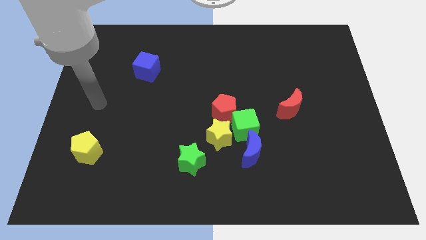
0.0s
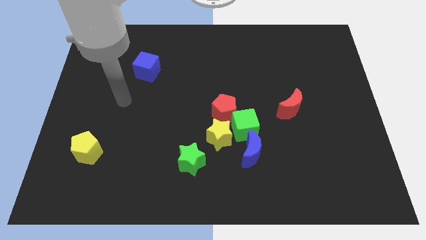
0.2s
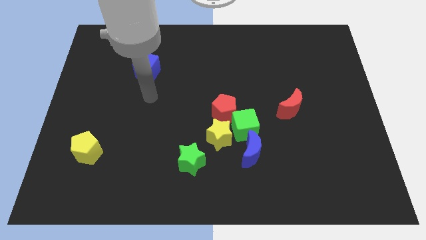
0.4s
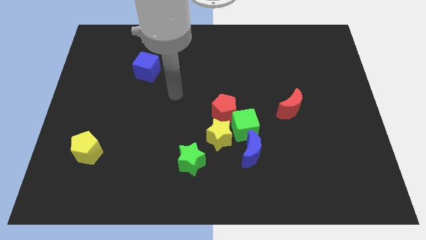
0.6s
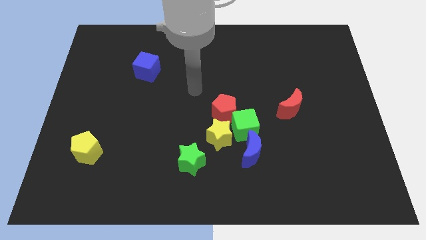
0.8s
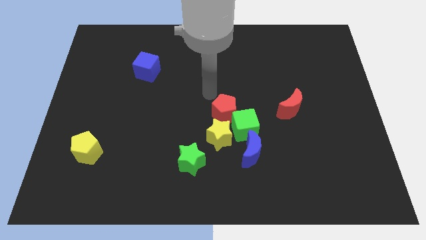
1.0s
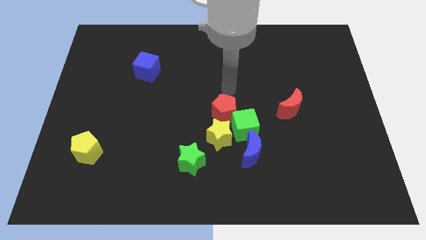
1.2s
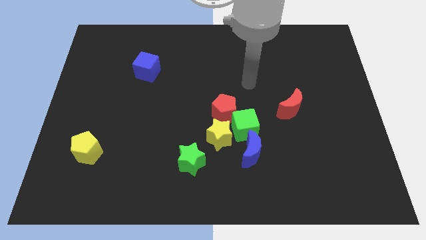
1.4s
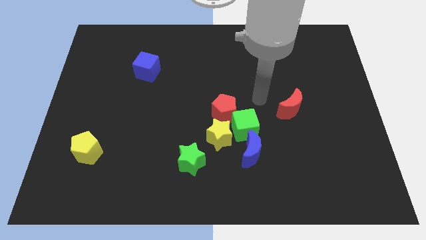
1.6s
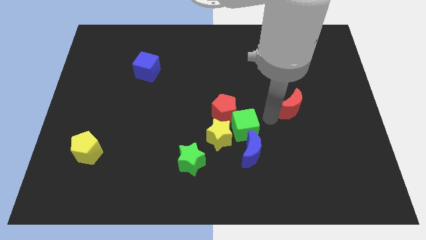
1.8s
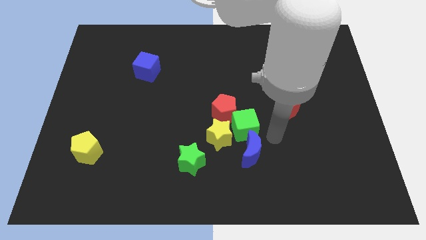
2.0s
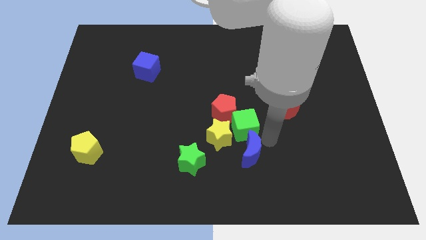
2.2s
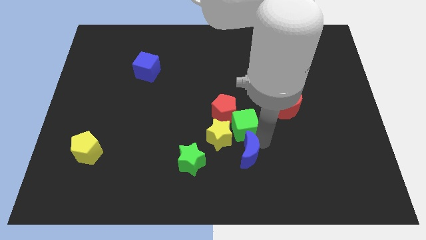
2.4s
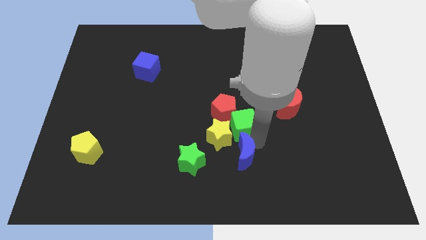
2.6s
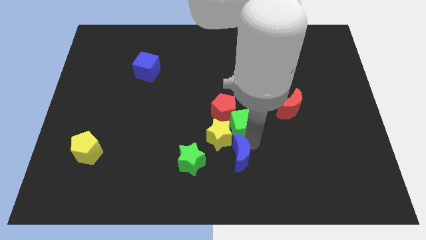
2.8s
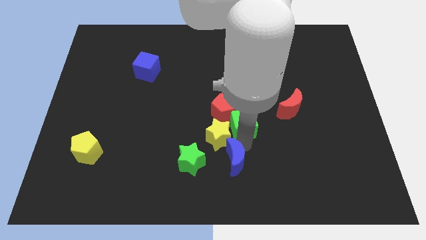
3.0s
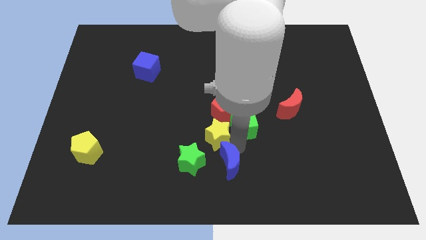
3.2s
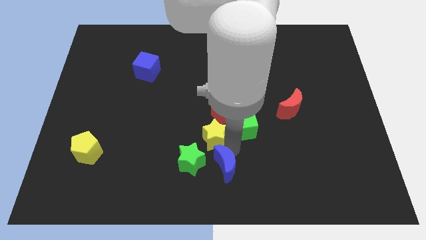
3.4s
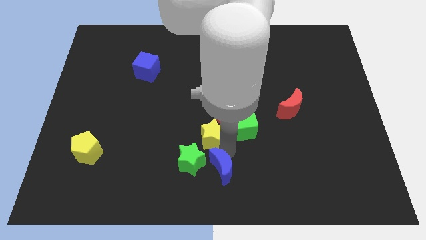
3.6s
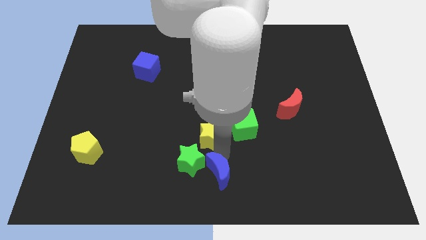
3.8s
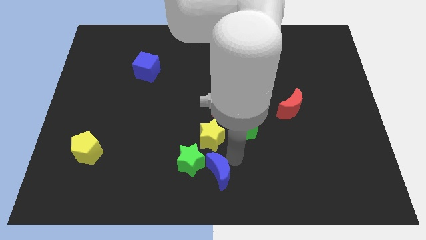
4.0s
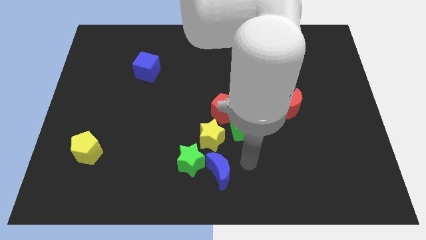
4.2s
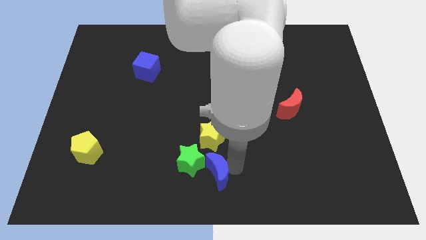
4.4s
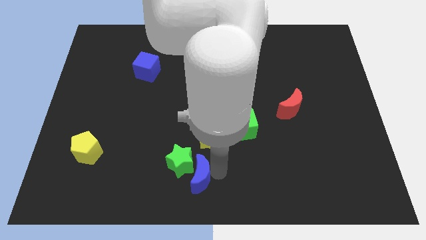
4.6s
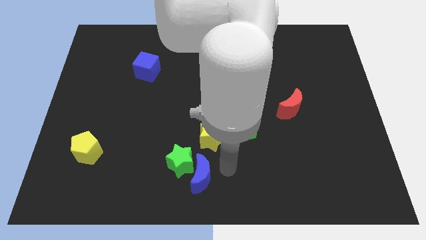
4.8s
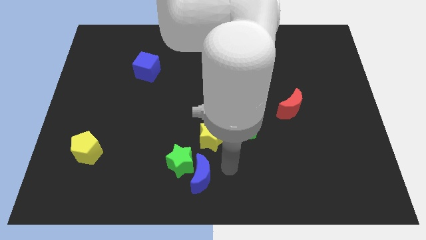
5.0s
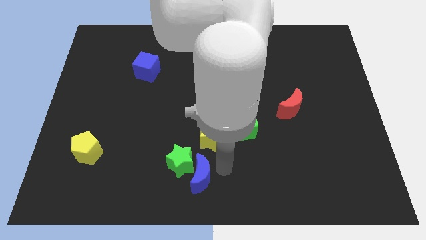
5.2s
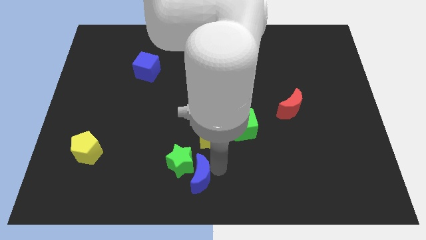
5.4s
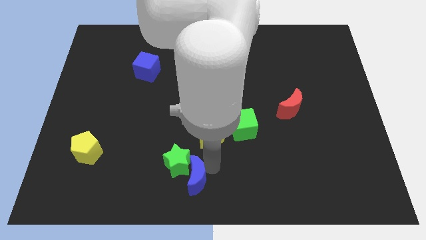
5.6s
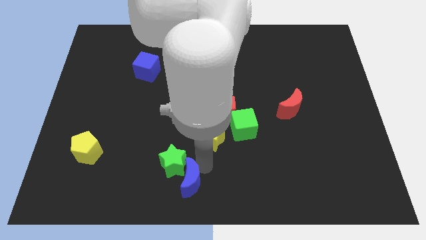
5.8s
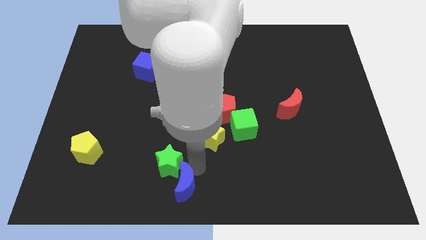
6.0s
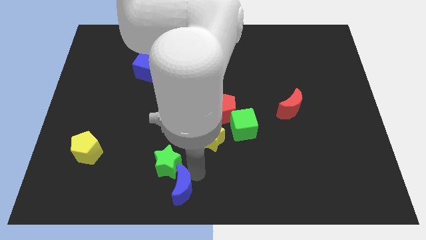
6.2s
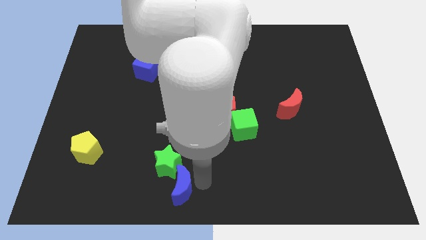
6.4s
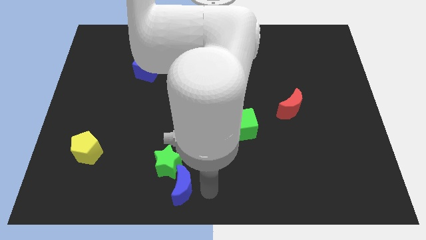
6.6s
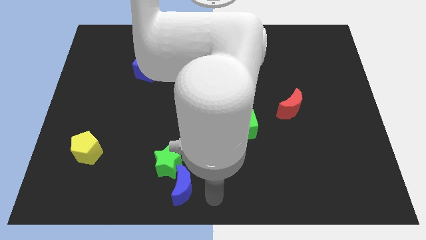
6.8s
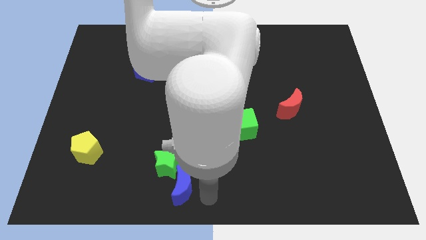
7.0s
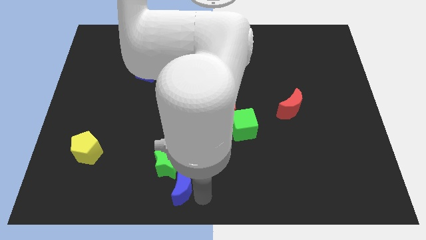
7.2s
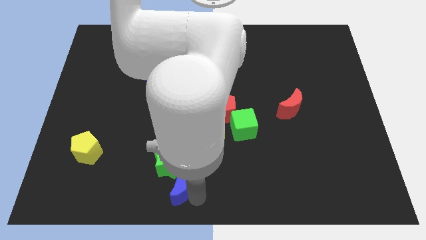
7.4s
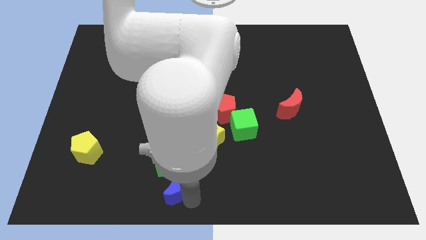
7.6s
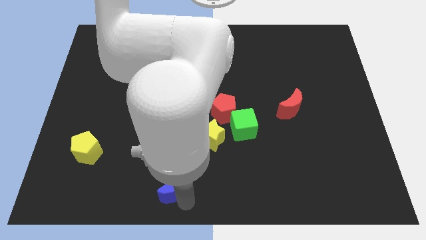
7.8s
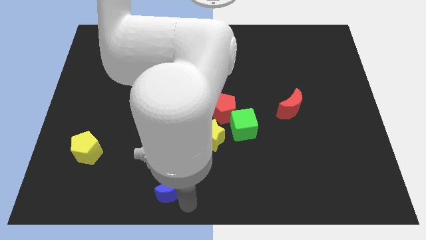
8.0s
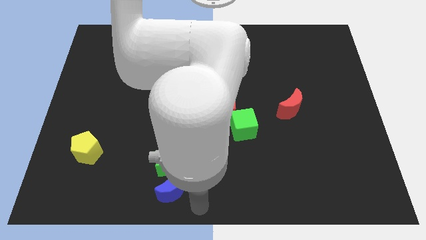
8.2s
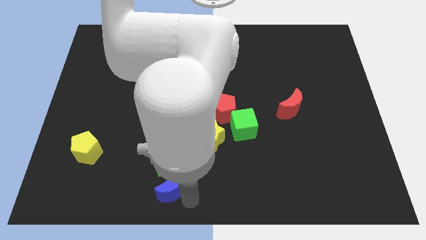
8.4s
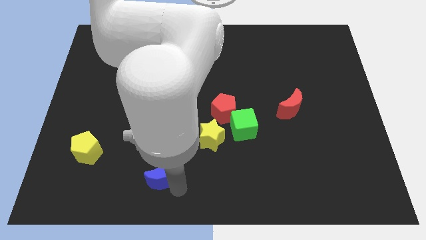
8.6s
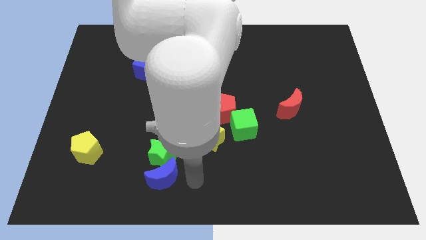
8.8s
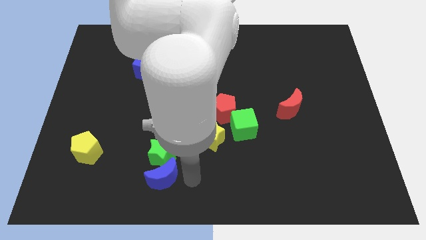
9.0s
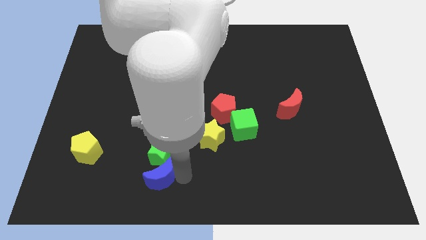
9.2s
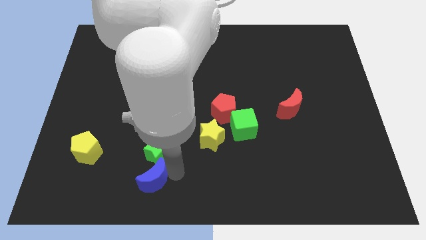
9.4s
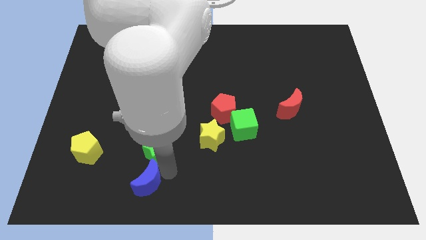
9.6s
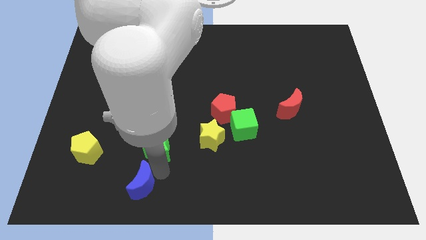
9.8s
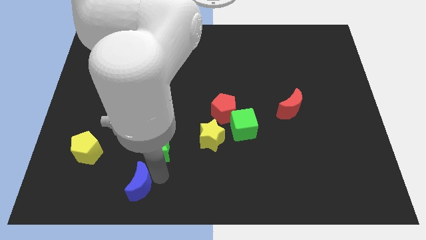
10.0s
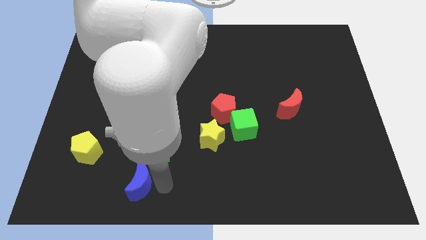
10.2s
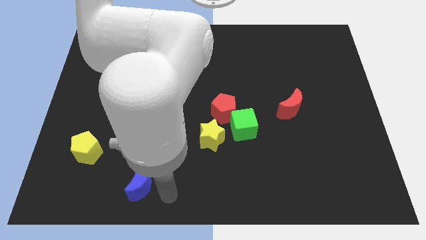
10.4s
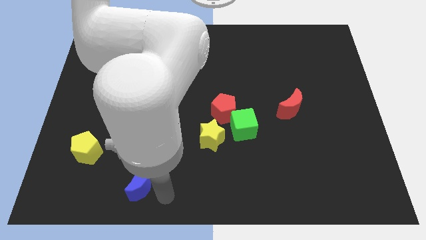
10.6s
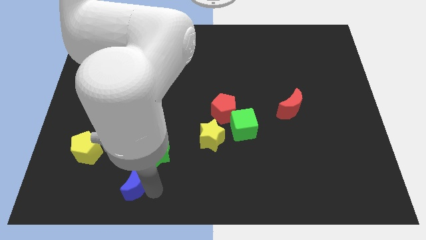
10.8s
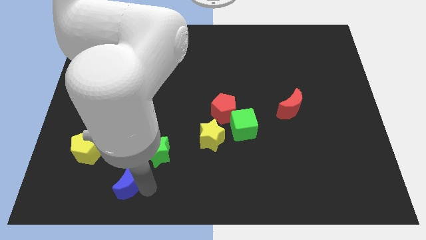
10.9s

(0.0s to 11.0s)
push the blue moon diagonally down and to the right of the yellow pentagon

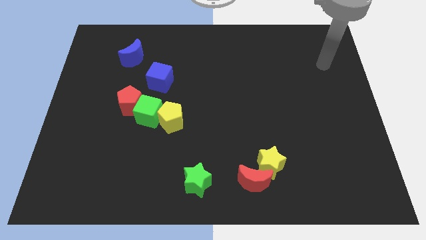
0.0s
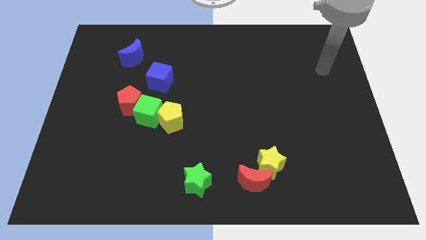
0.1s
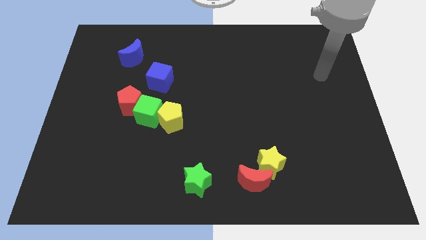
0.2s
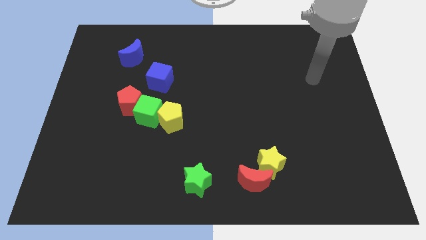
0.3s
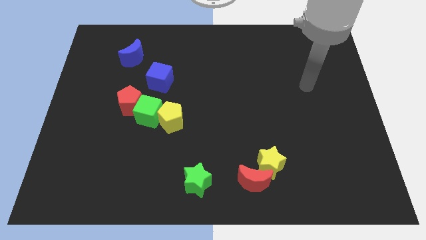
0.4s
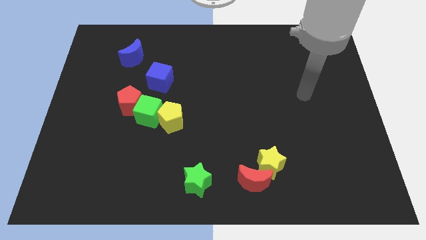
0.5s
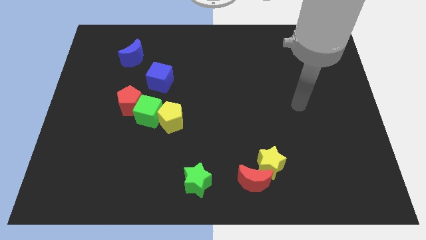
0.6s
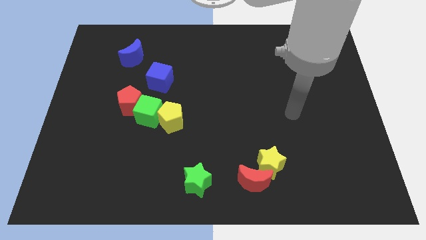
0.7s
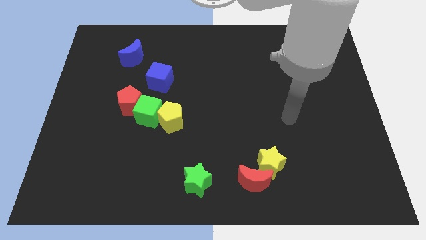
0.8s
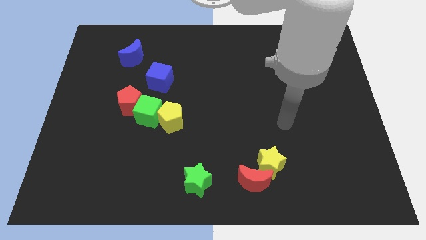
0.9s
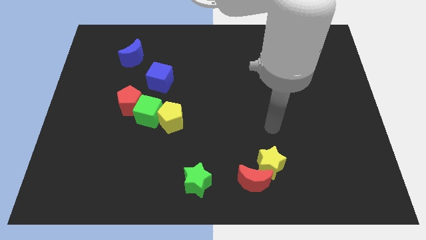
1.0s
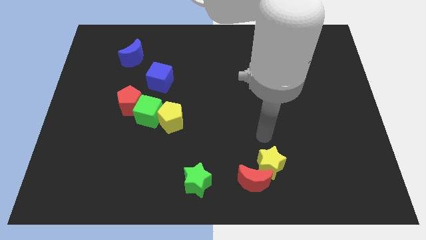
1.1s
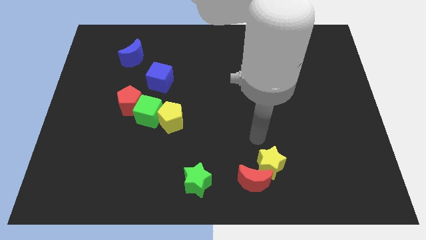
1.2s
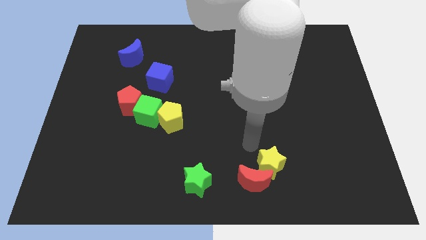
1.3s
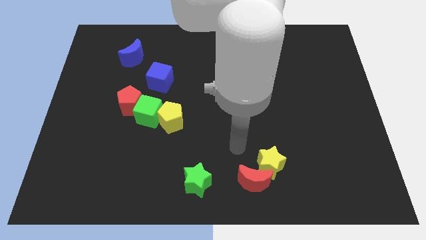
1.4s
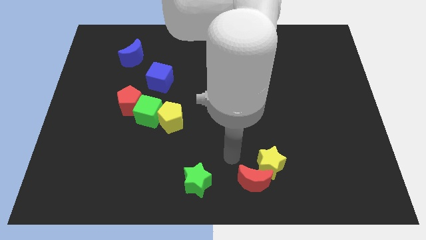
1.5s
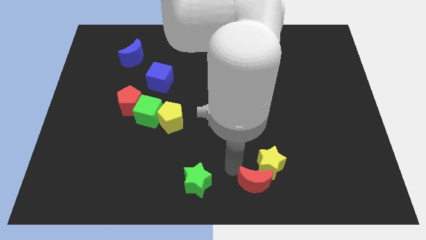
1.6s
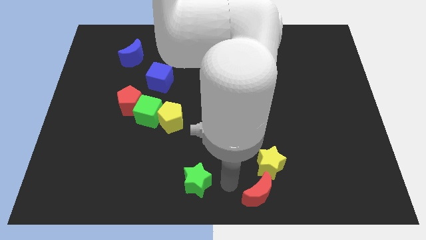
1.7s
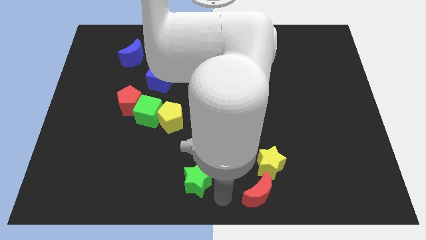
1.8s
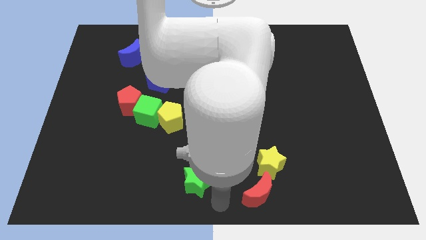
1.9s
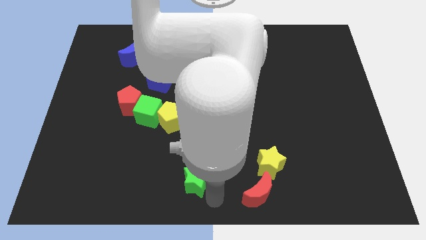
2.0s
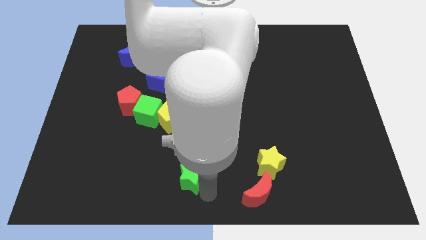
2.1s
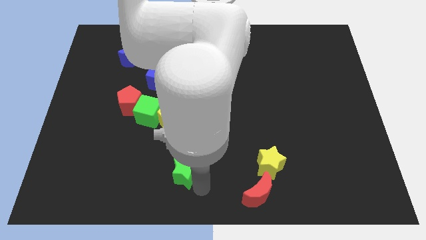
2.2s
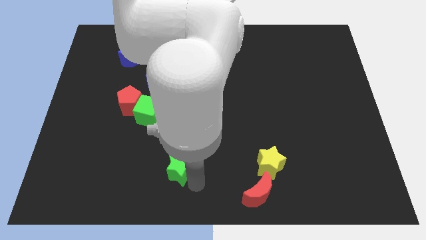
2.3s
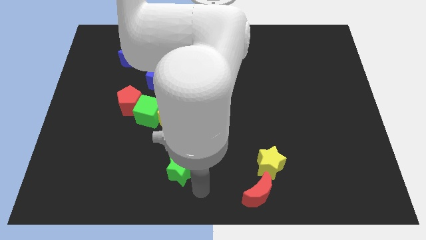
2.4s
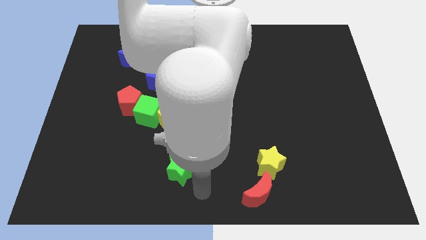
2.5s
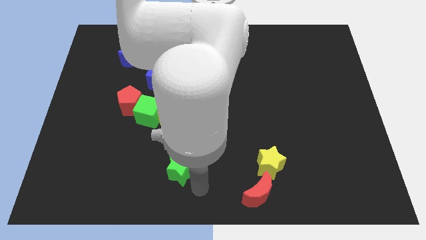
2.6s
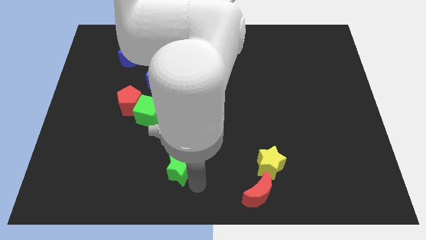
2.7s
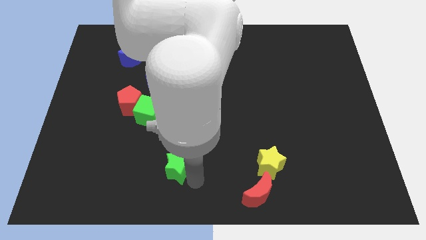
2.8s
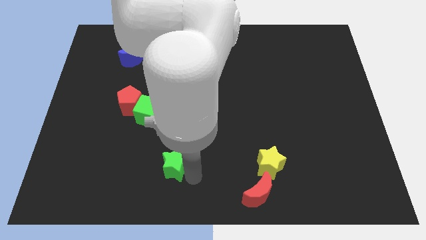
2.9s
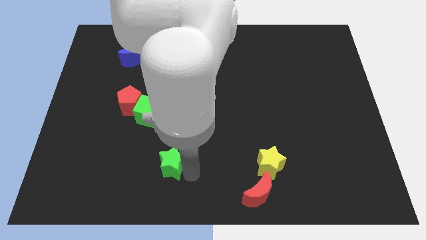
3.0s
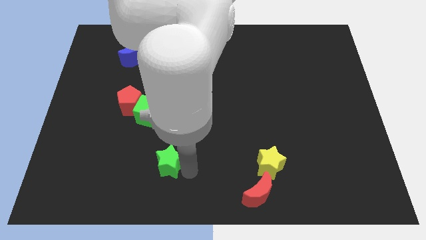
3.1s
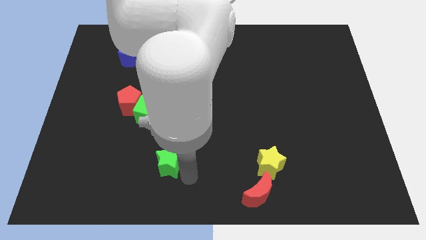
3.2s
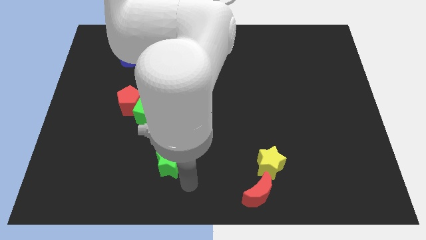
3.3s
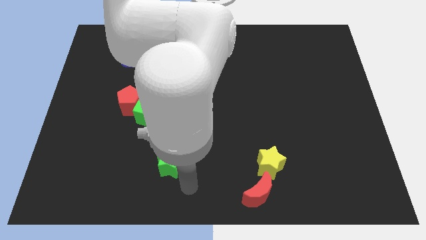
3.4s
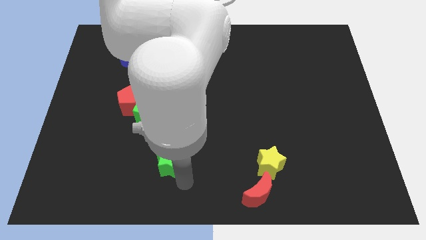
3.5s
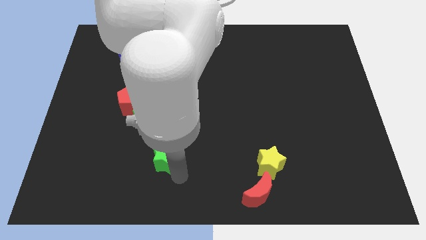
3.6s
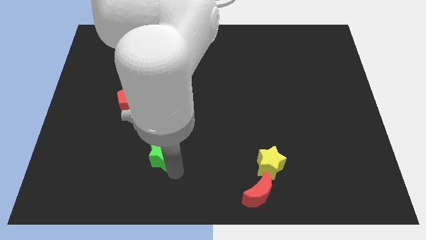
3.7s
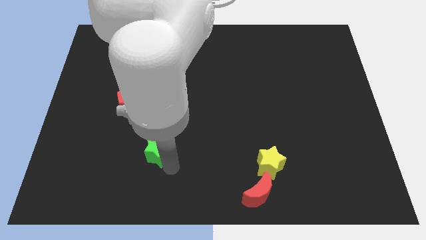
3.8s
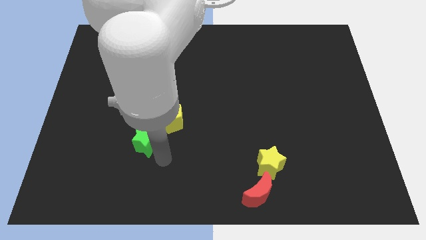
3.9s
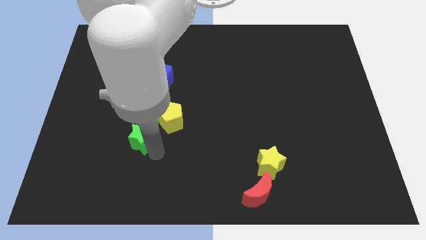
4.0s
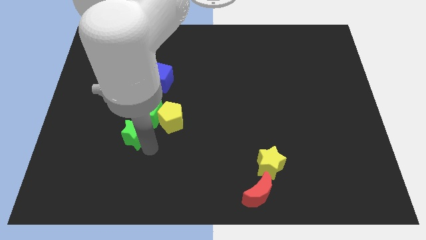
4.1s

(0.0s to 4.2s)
put the green star just left of the yellow pentagon
